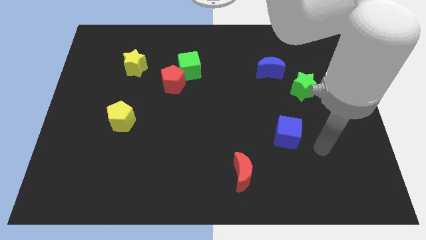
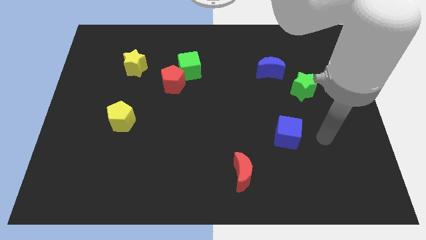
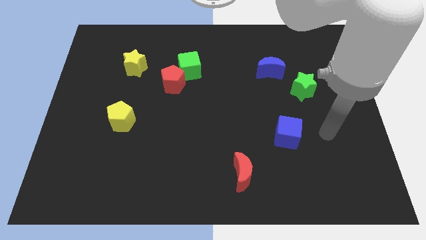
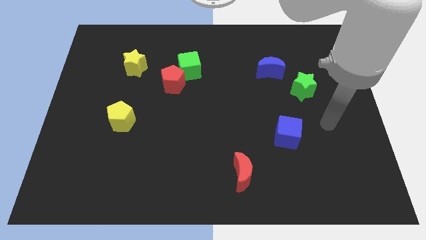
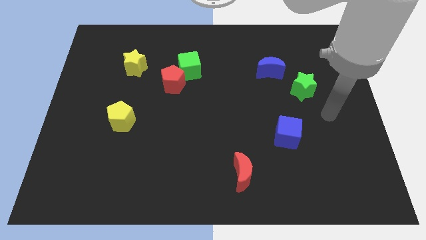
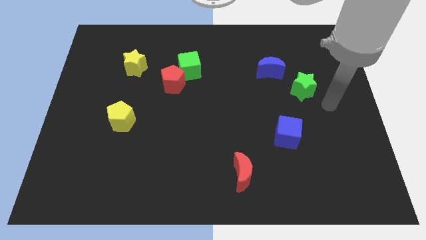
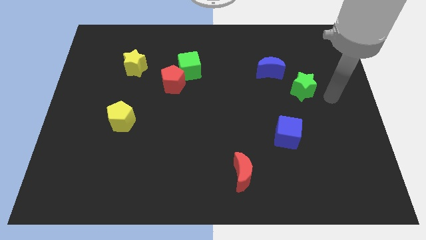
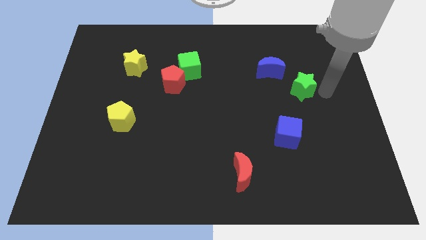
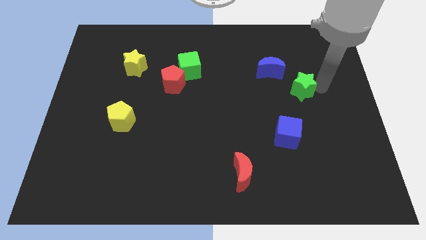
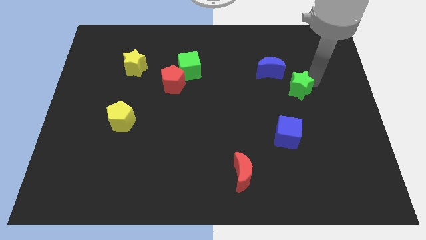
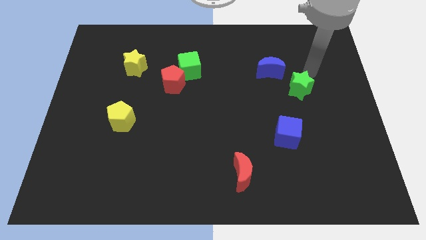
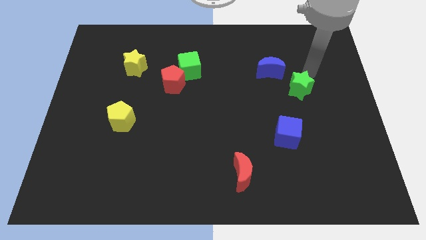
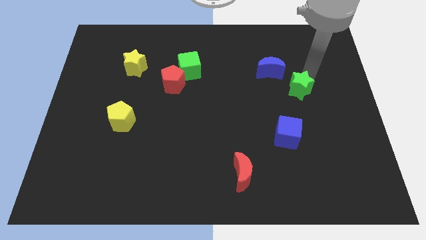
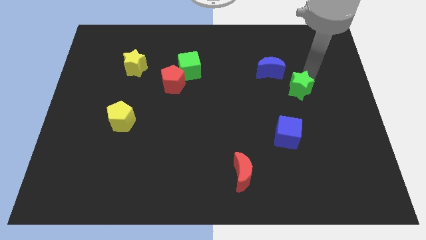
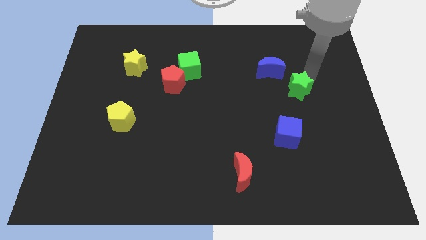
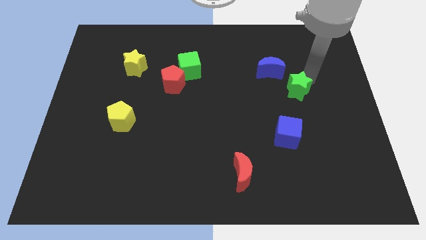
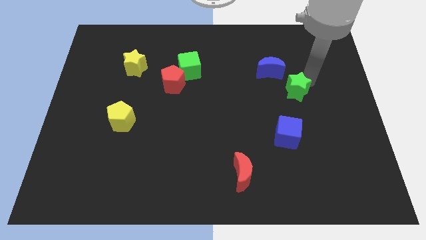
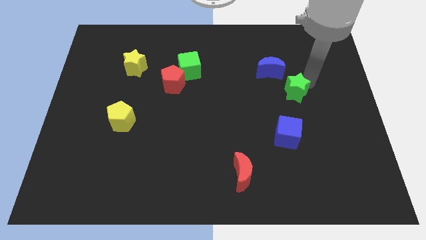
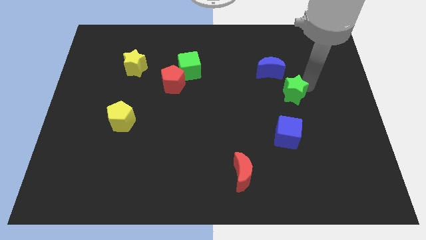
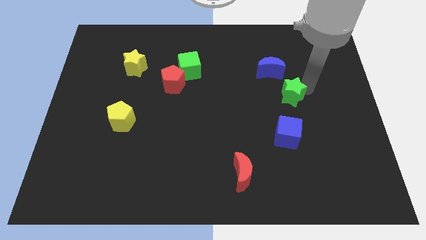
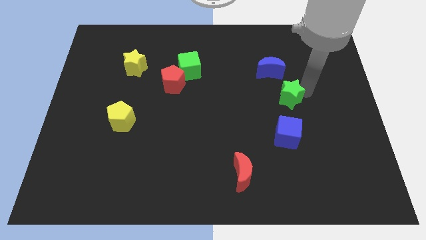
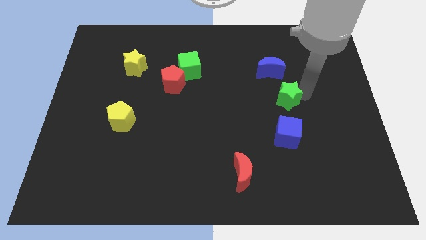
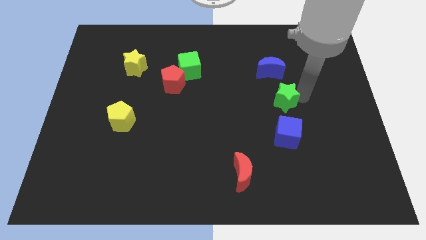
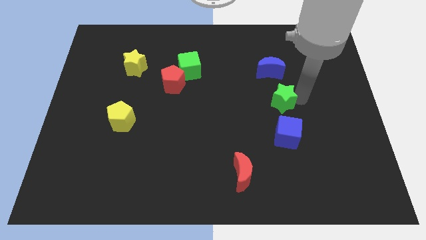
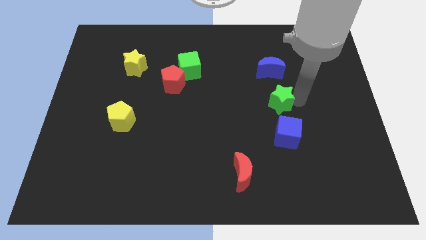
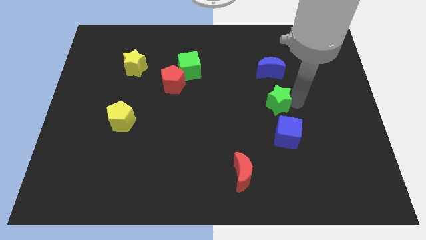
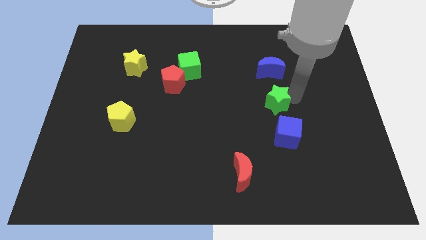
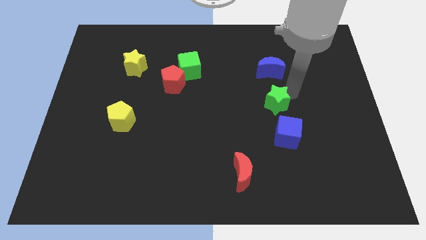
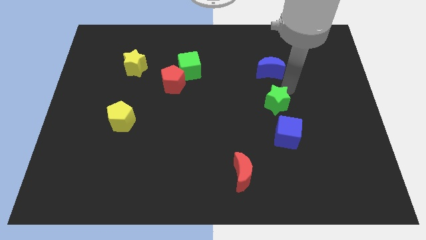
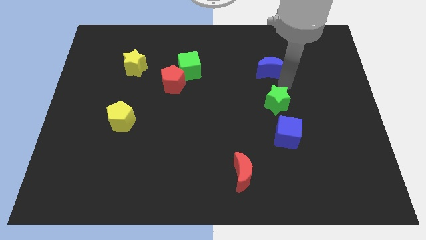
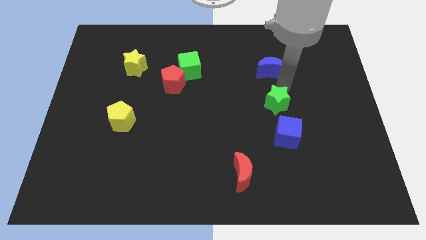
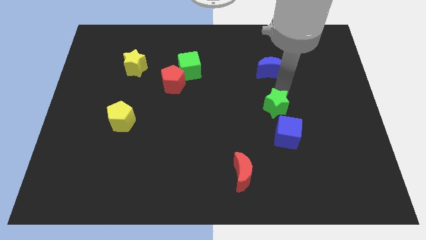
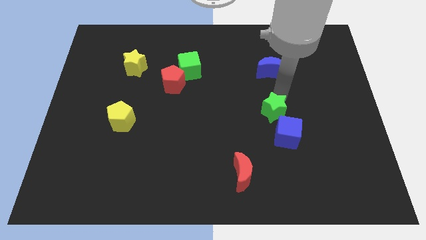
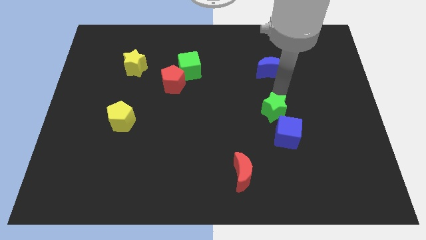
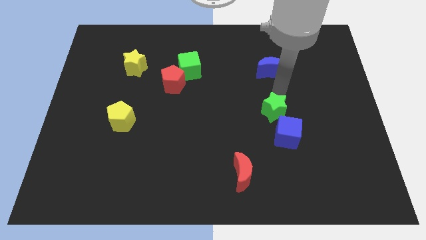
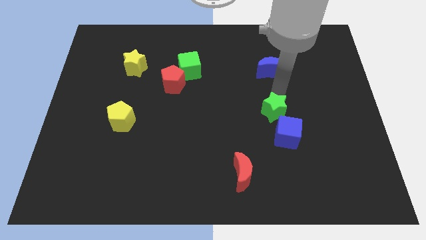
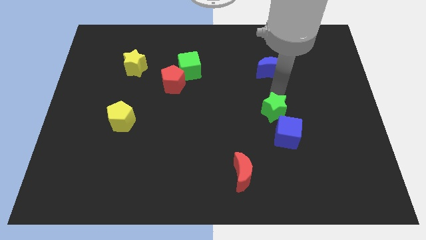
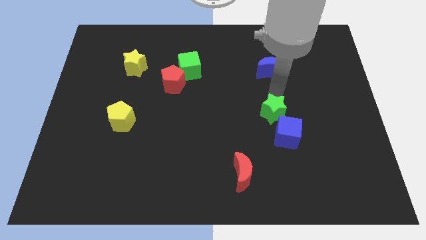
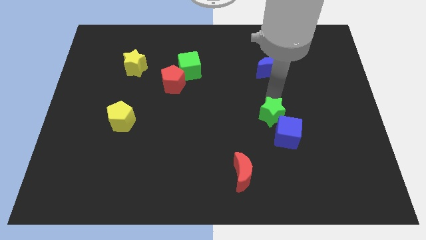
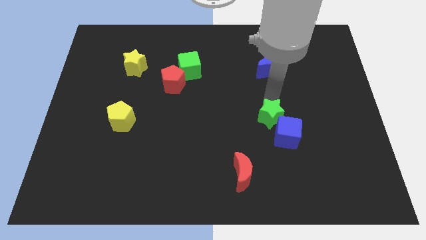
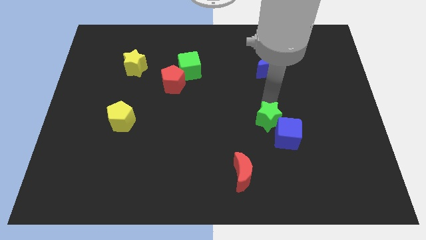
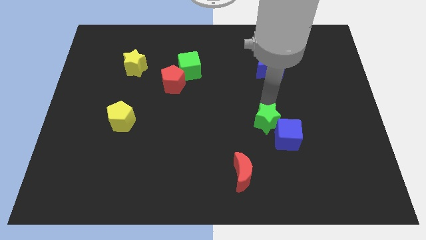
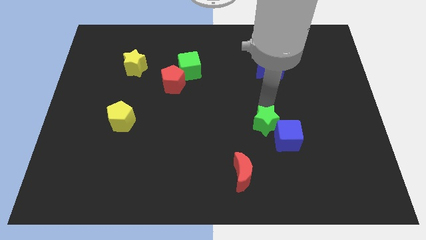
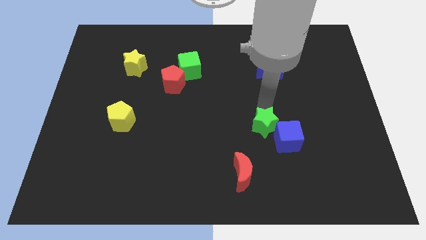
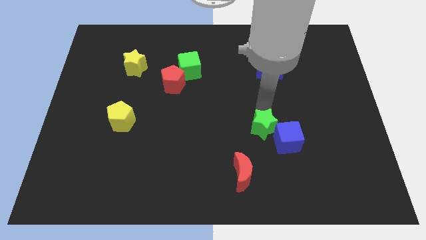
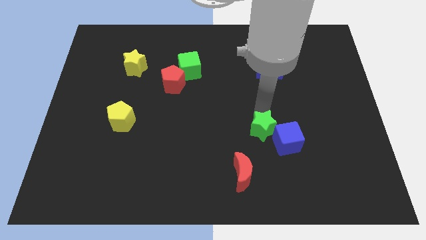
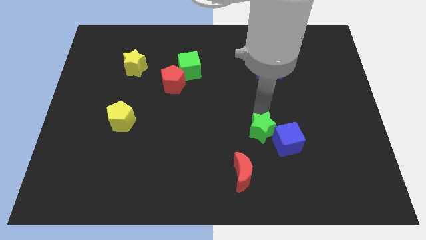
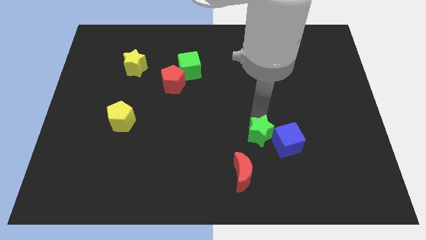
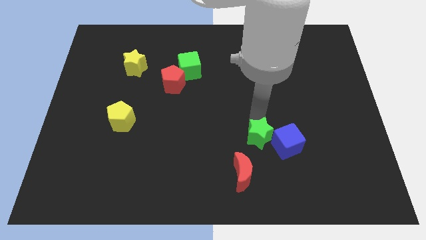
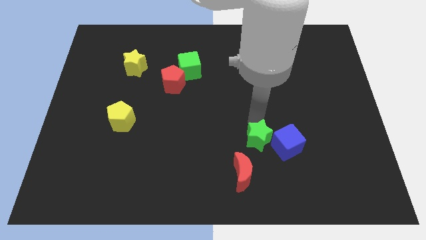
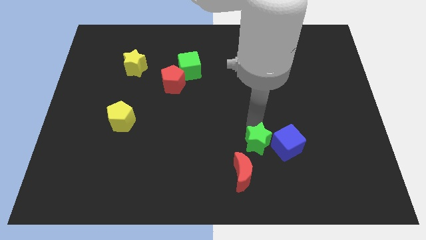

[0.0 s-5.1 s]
move the green star to the bottom left of the blue cube

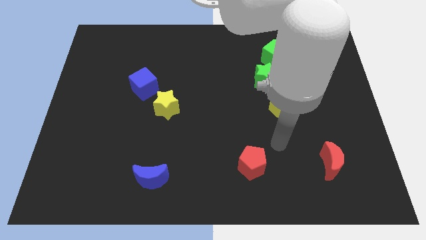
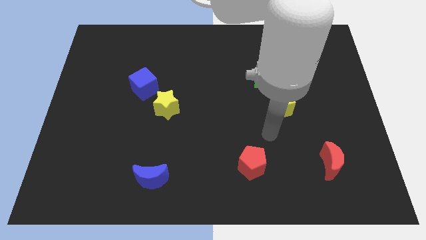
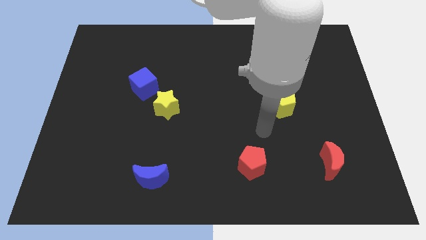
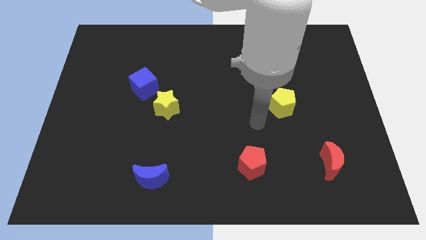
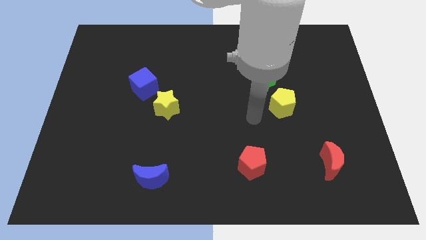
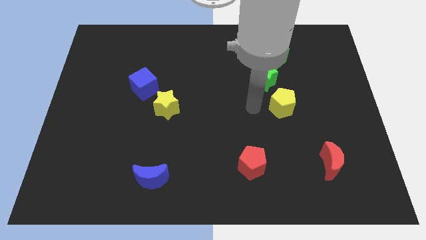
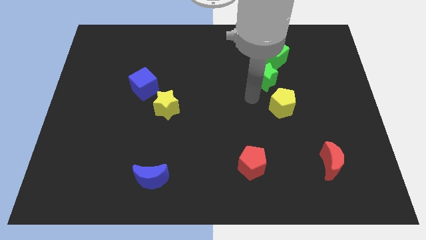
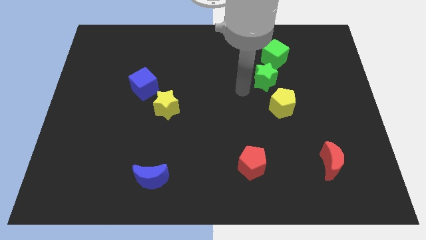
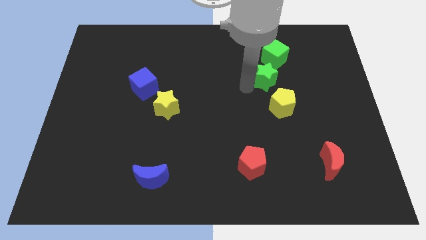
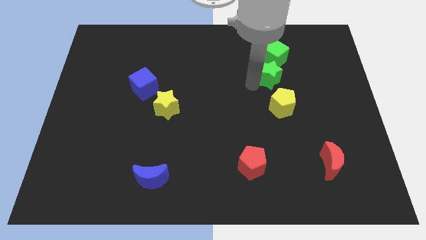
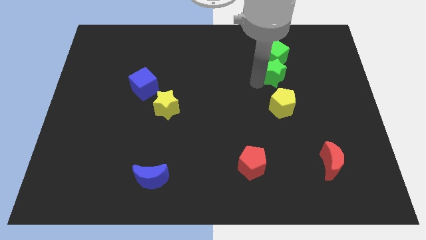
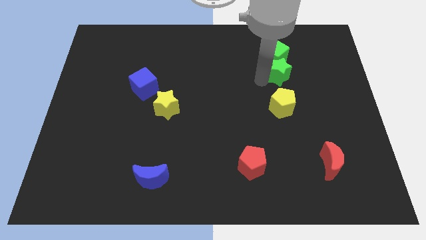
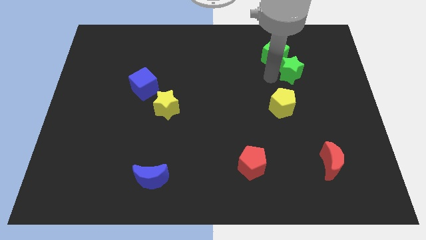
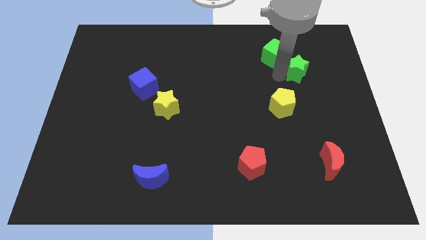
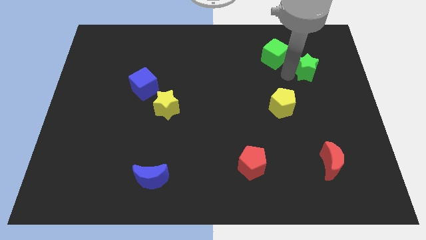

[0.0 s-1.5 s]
move the green star just right of the green cube
